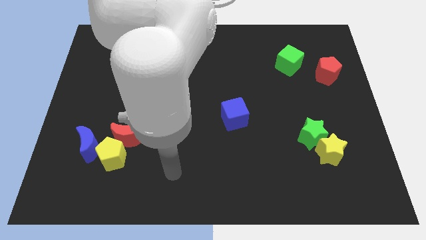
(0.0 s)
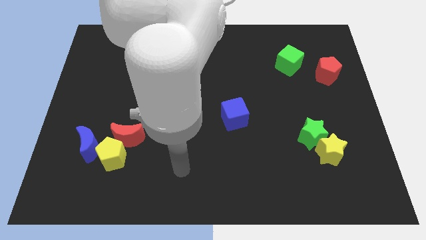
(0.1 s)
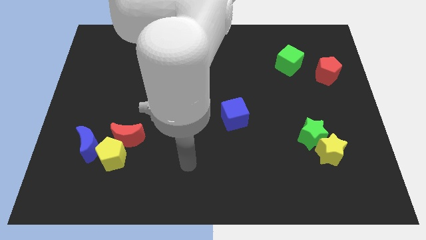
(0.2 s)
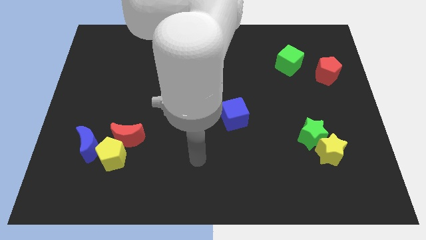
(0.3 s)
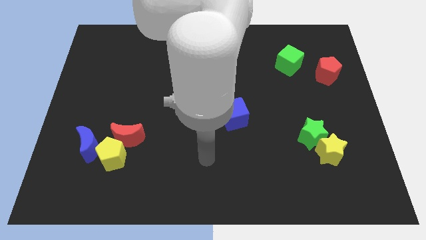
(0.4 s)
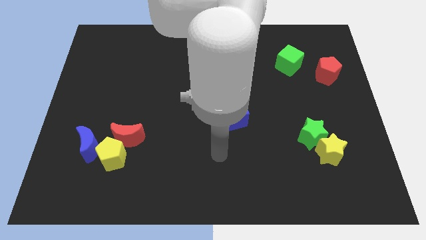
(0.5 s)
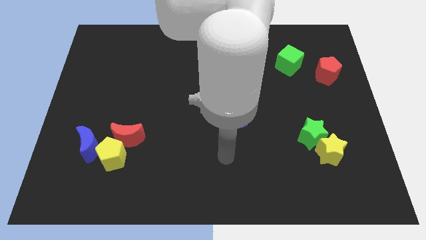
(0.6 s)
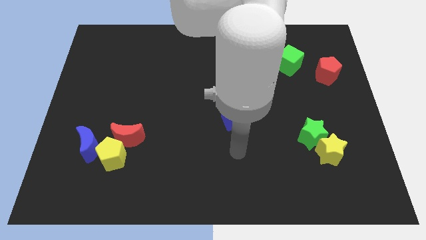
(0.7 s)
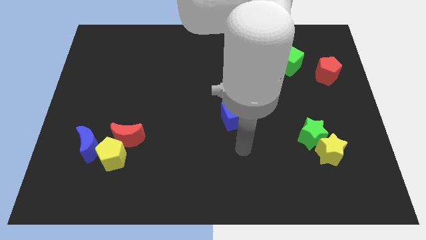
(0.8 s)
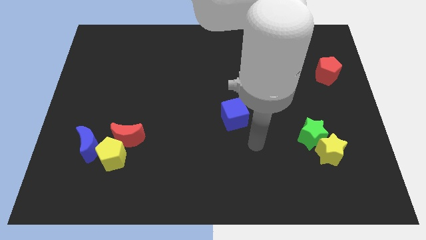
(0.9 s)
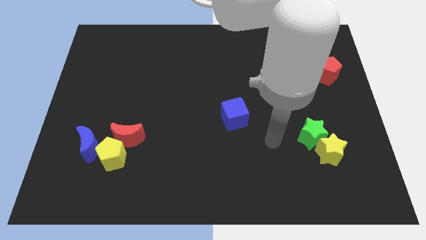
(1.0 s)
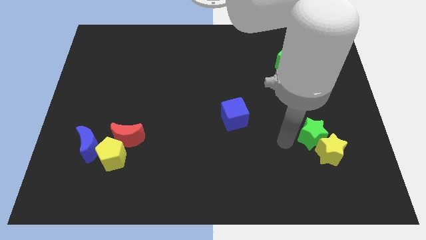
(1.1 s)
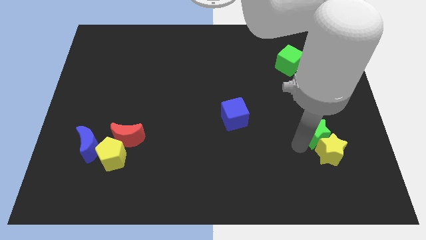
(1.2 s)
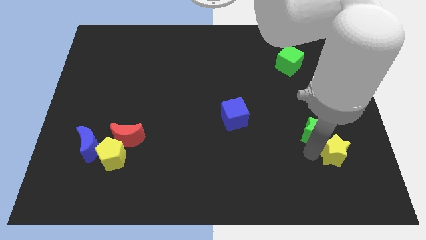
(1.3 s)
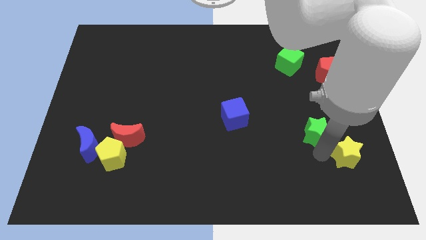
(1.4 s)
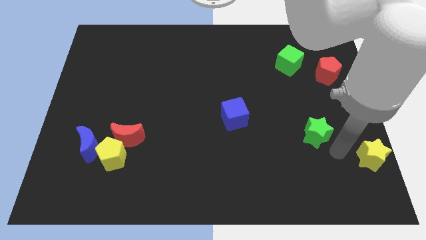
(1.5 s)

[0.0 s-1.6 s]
separate the green star from the yellow star

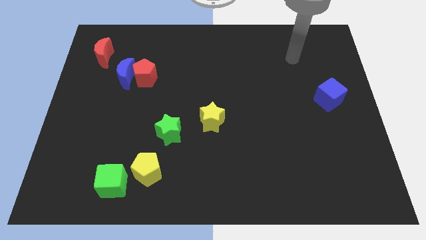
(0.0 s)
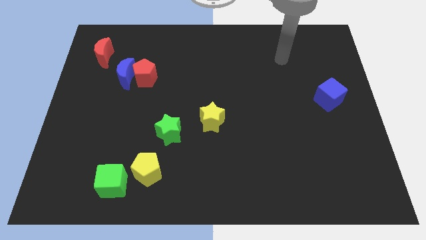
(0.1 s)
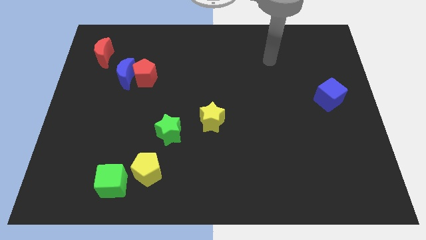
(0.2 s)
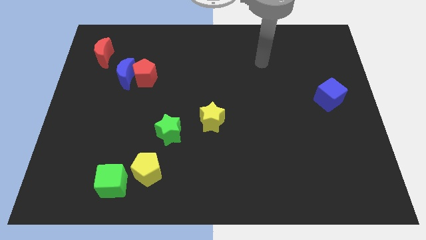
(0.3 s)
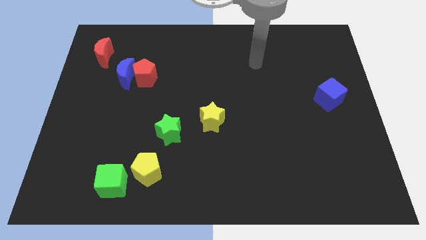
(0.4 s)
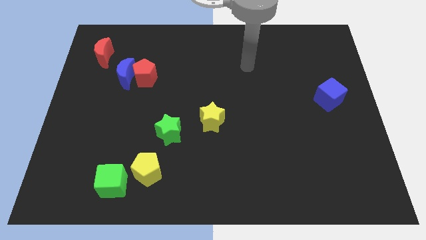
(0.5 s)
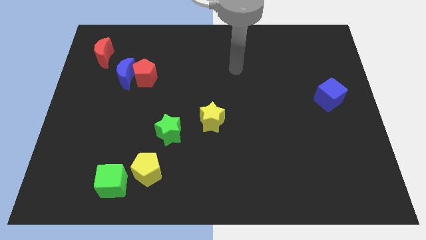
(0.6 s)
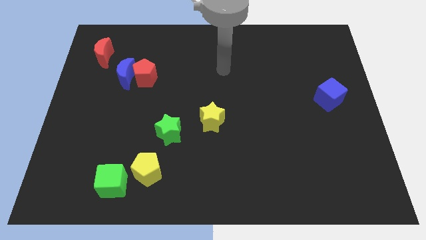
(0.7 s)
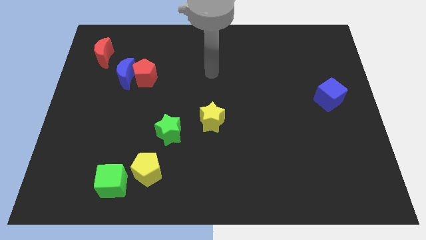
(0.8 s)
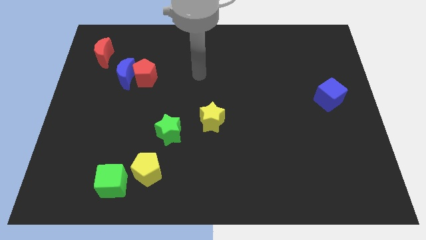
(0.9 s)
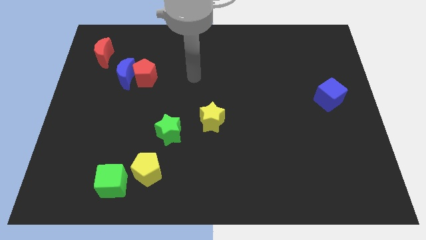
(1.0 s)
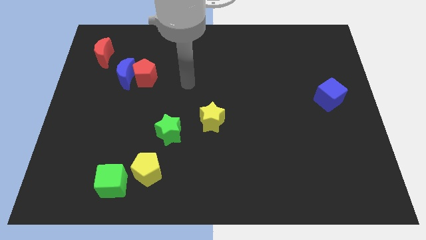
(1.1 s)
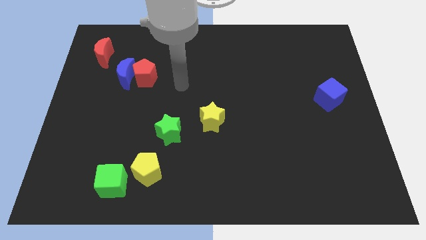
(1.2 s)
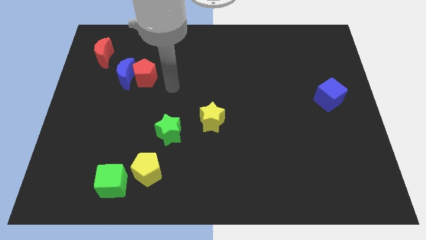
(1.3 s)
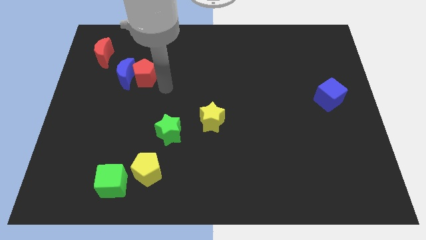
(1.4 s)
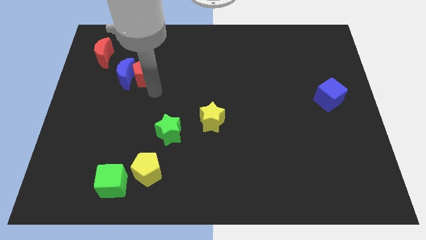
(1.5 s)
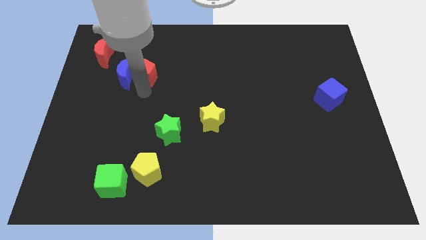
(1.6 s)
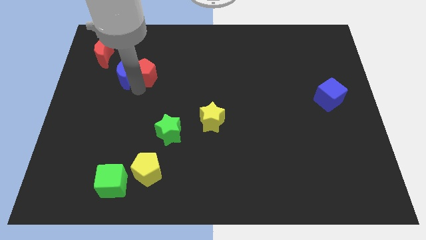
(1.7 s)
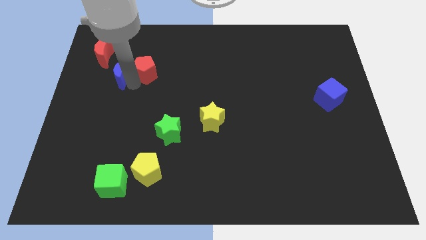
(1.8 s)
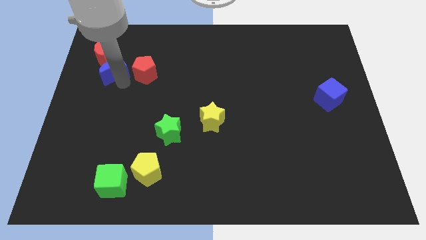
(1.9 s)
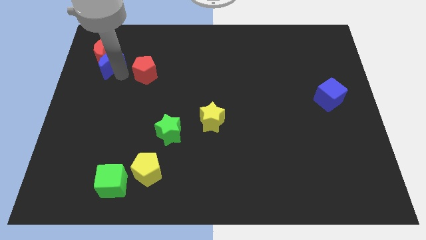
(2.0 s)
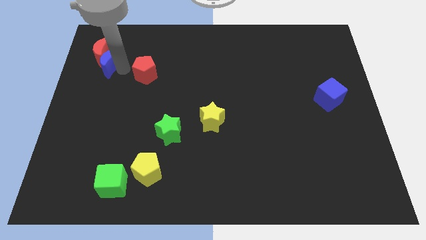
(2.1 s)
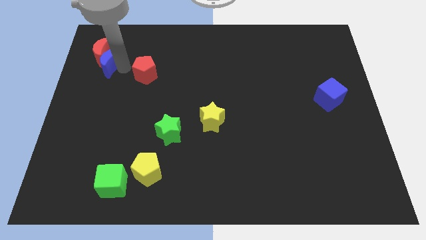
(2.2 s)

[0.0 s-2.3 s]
pull the red pentagon apart from the blue moon

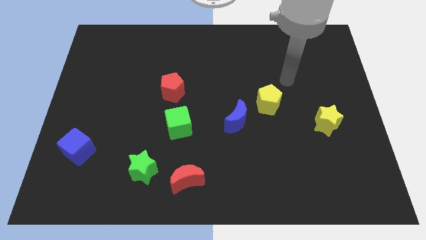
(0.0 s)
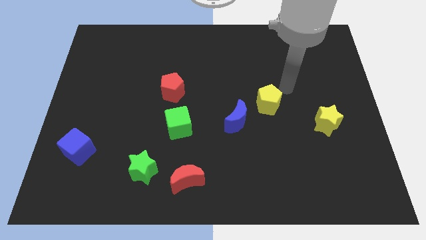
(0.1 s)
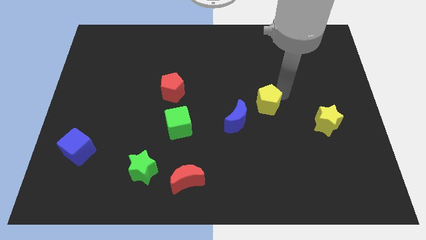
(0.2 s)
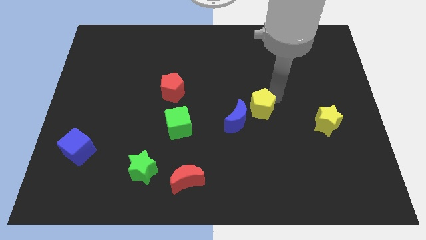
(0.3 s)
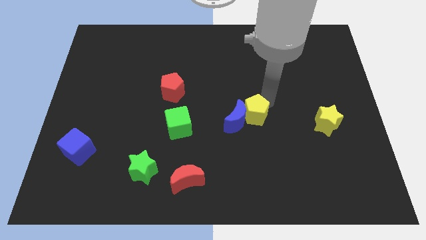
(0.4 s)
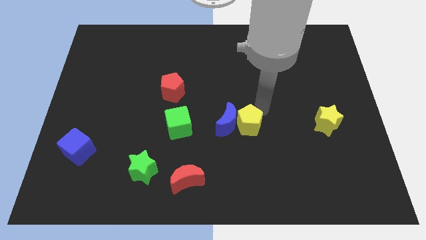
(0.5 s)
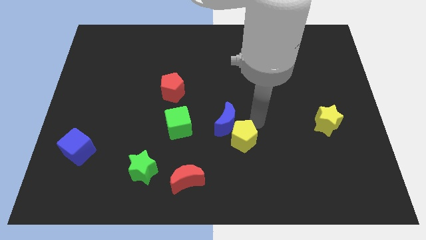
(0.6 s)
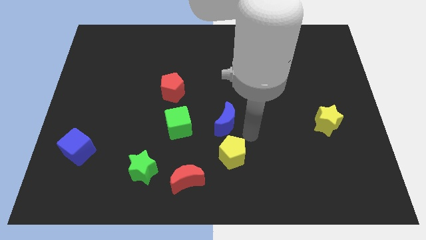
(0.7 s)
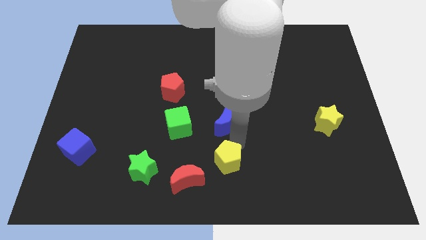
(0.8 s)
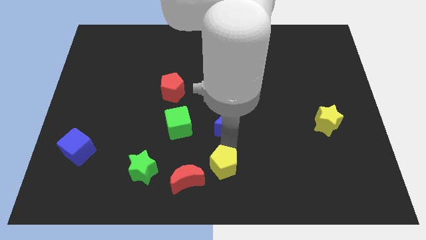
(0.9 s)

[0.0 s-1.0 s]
separate the blue moon from the yellow pentagon

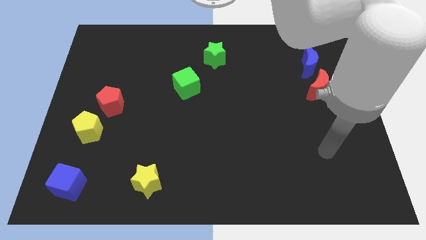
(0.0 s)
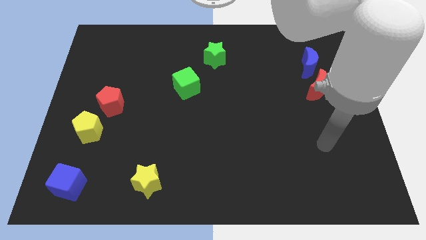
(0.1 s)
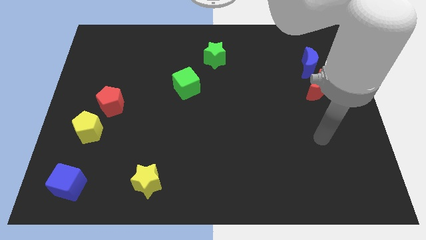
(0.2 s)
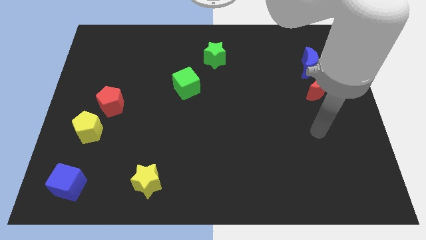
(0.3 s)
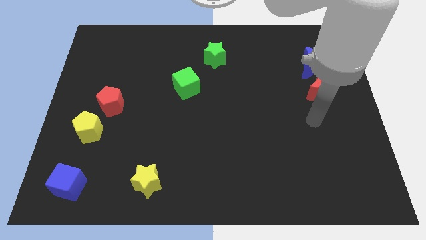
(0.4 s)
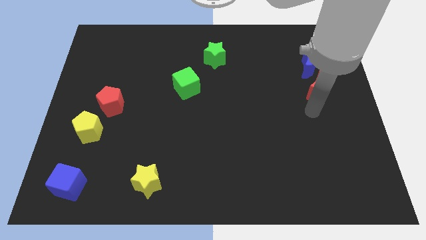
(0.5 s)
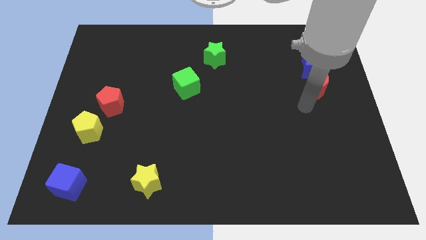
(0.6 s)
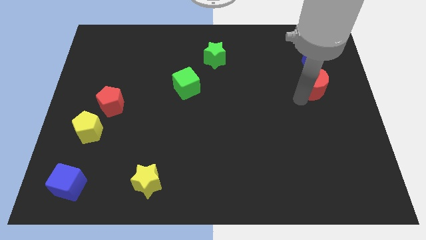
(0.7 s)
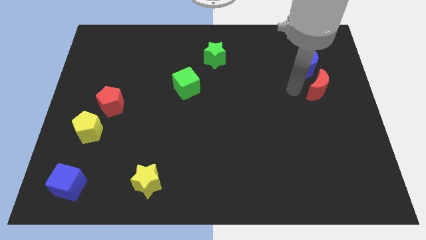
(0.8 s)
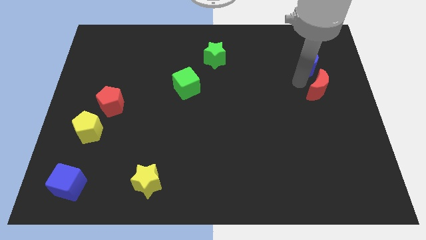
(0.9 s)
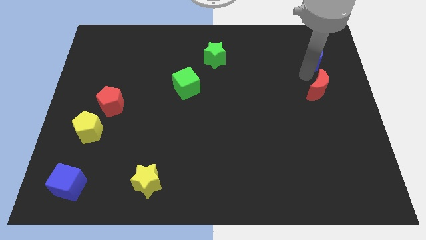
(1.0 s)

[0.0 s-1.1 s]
pull the red moon apart from the blue moon

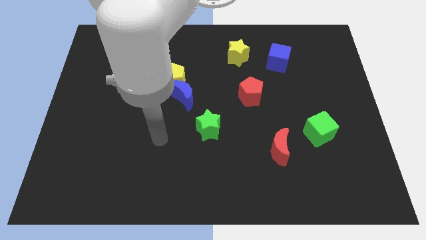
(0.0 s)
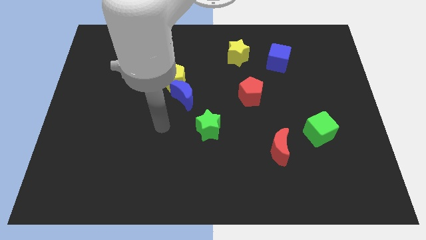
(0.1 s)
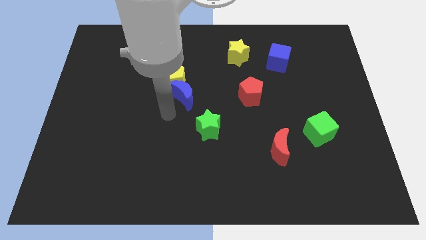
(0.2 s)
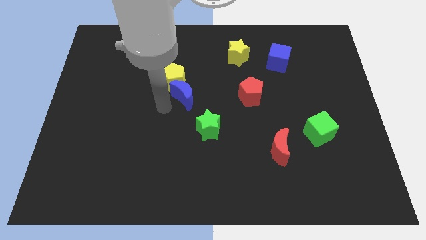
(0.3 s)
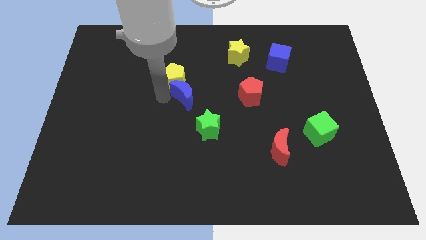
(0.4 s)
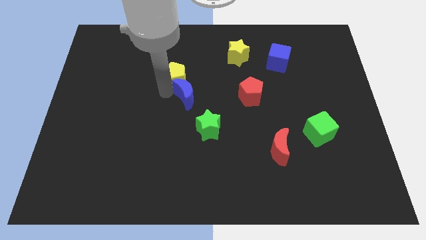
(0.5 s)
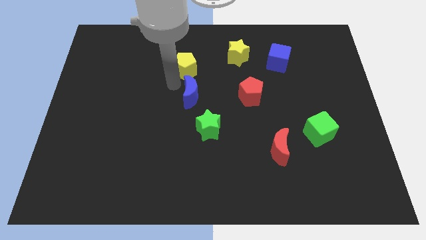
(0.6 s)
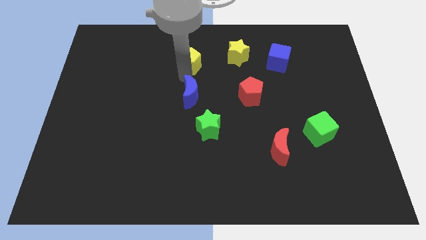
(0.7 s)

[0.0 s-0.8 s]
pull the blue moon apart from the yellow pentagon

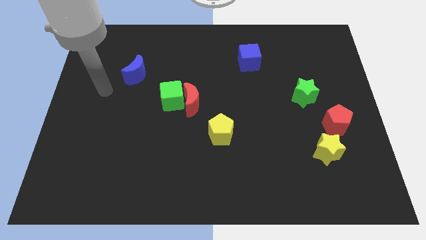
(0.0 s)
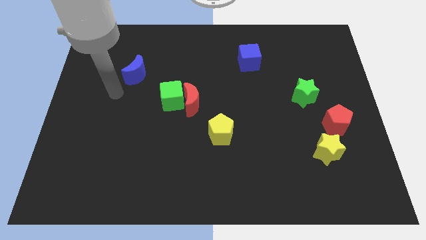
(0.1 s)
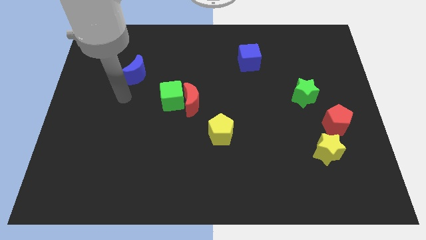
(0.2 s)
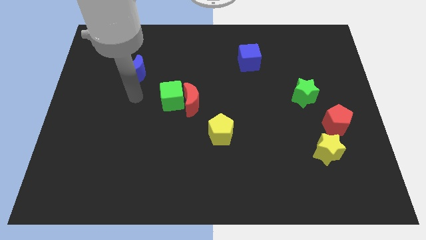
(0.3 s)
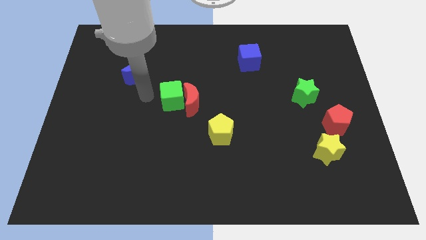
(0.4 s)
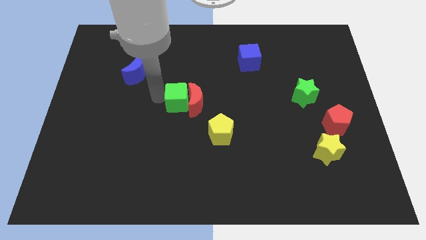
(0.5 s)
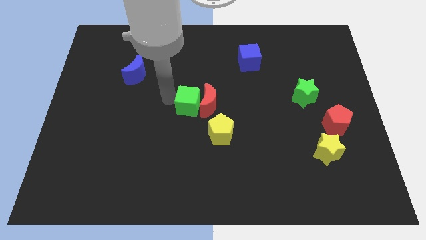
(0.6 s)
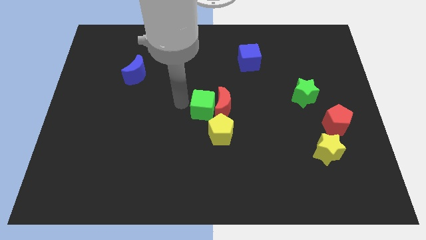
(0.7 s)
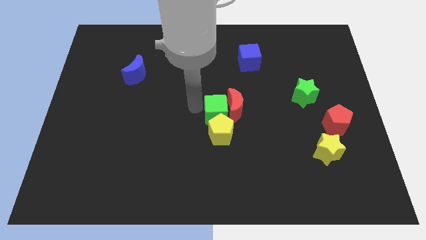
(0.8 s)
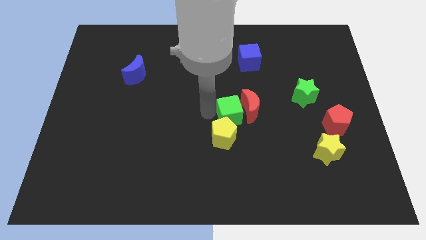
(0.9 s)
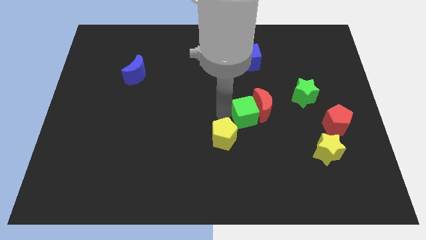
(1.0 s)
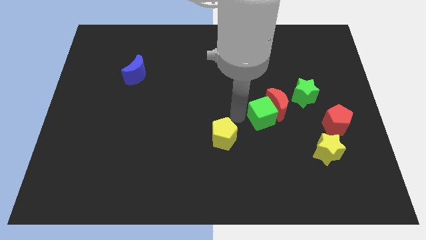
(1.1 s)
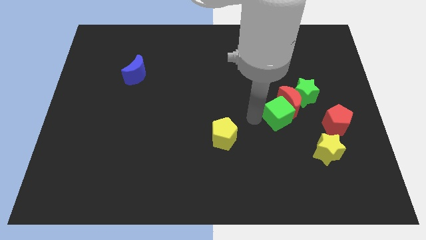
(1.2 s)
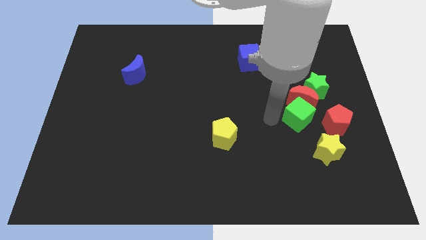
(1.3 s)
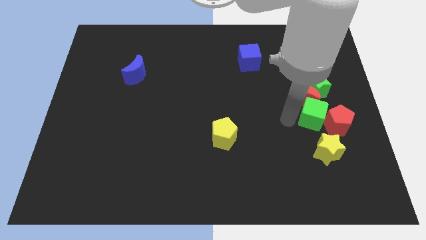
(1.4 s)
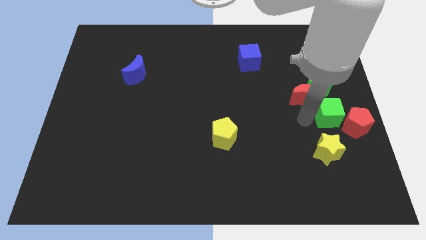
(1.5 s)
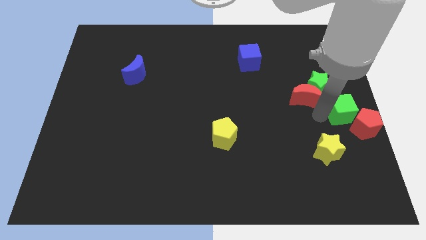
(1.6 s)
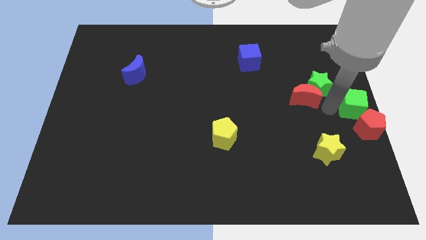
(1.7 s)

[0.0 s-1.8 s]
pull the red moon apart from the green cube

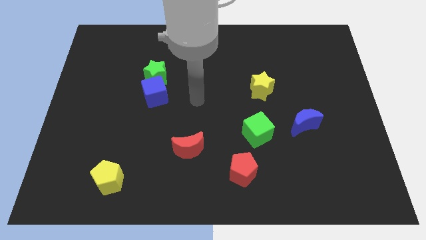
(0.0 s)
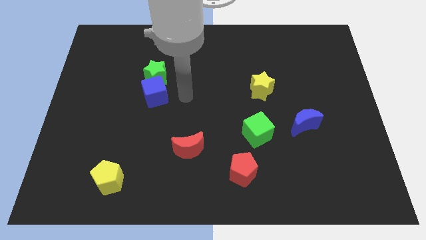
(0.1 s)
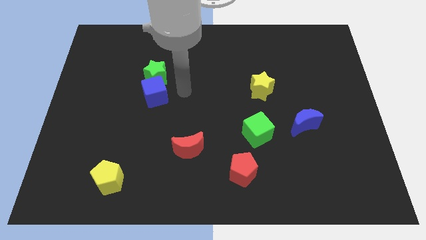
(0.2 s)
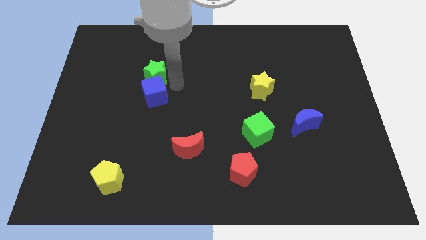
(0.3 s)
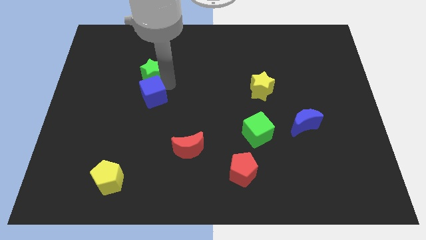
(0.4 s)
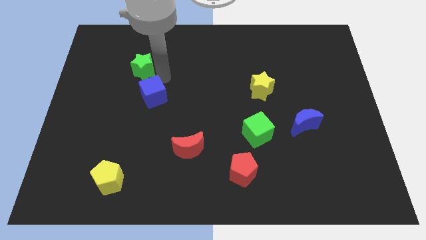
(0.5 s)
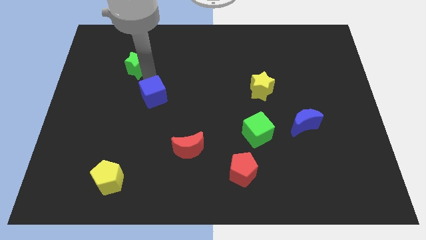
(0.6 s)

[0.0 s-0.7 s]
separate the blue cube from the green star
